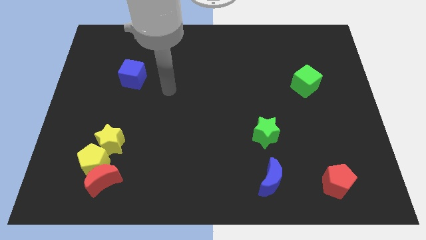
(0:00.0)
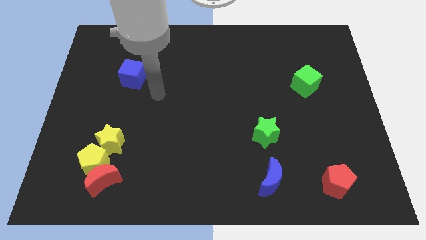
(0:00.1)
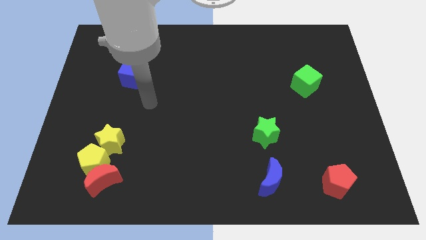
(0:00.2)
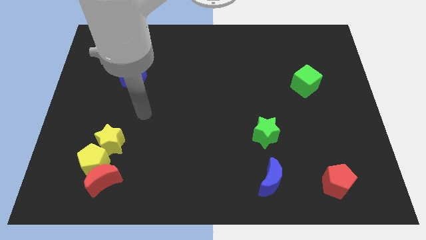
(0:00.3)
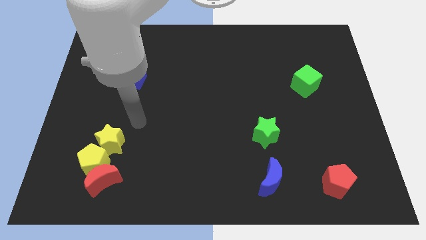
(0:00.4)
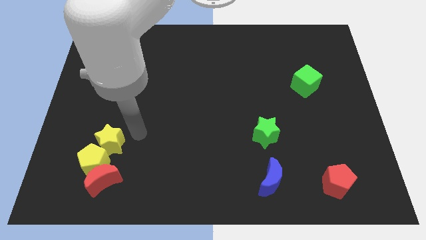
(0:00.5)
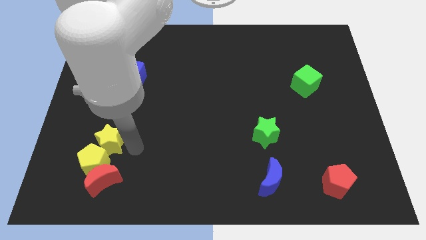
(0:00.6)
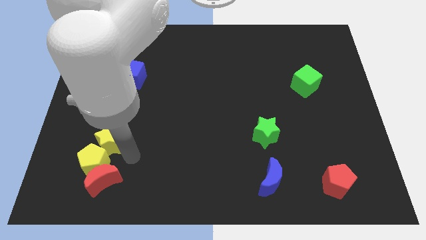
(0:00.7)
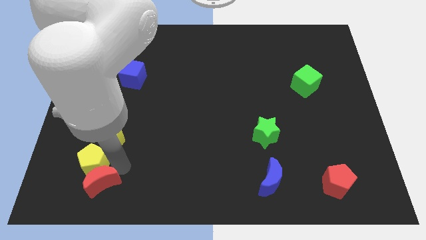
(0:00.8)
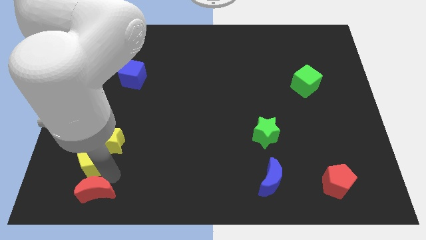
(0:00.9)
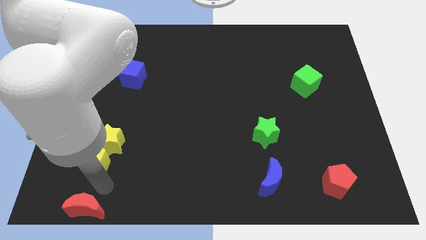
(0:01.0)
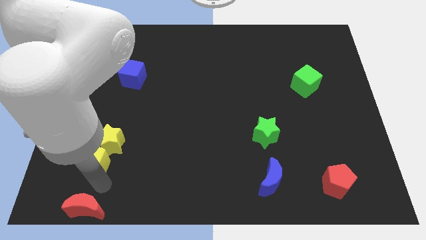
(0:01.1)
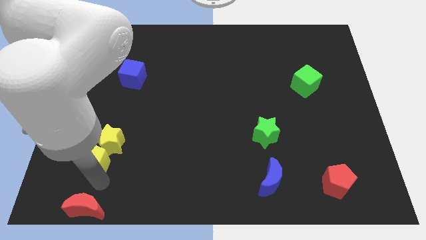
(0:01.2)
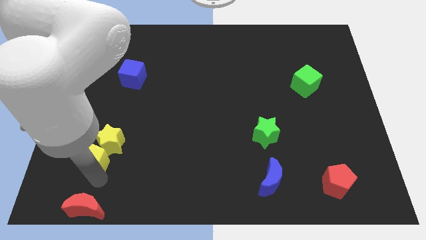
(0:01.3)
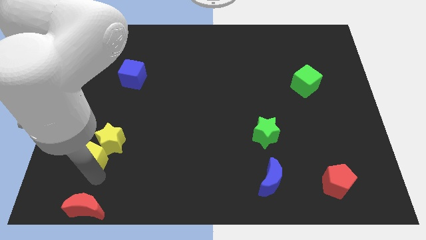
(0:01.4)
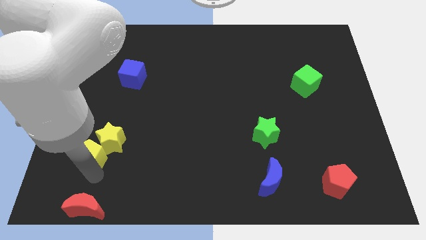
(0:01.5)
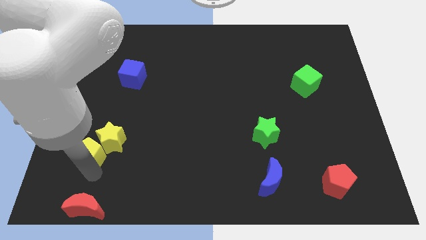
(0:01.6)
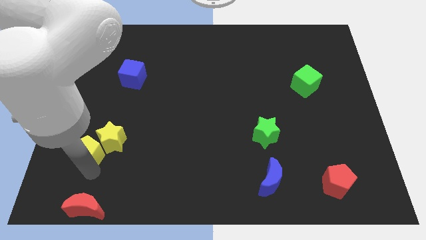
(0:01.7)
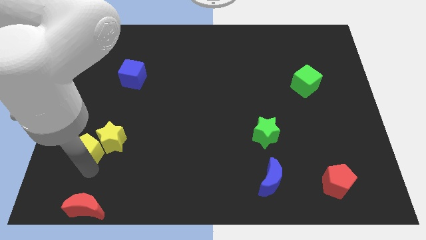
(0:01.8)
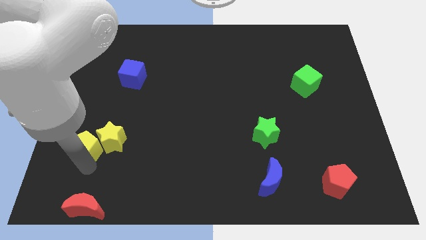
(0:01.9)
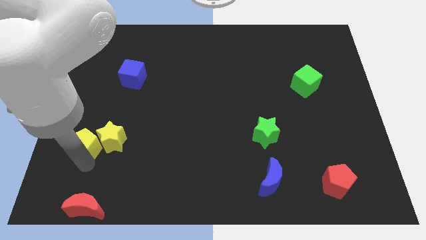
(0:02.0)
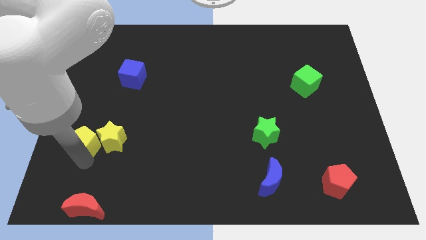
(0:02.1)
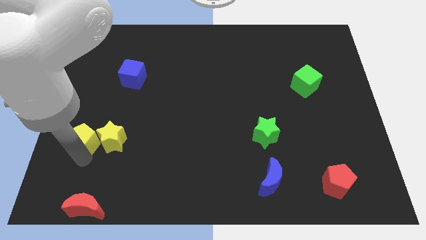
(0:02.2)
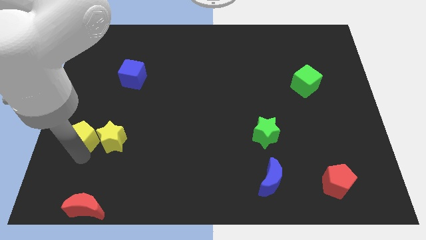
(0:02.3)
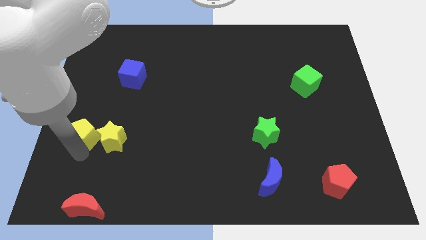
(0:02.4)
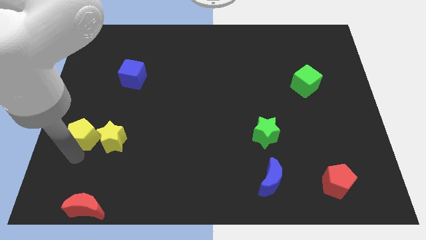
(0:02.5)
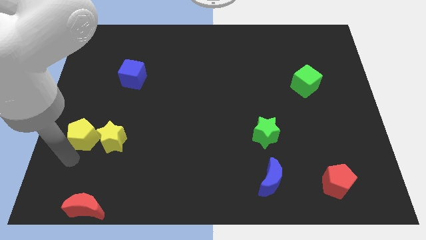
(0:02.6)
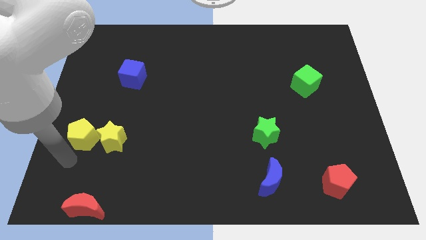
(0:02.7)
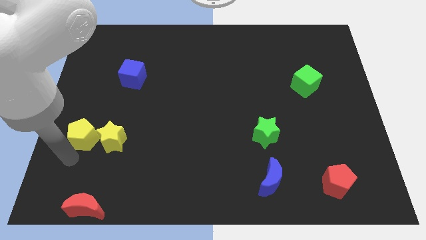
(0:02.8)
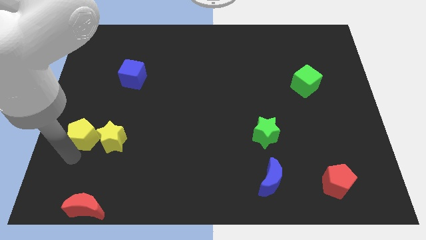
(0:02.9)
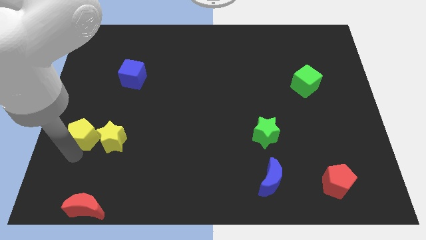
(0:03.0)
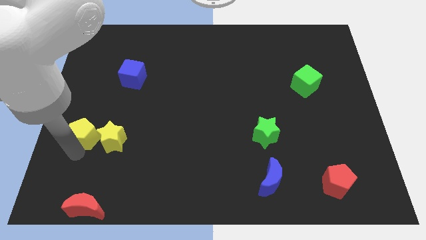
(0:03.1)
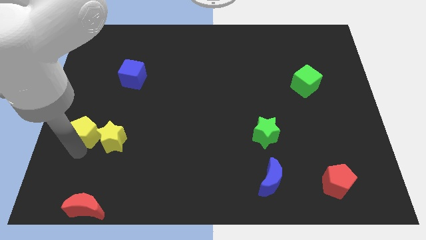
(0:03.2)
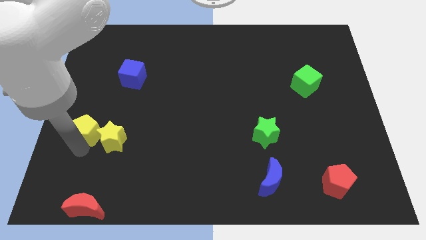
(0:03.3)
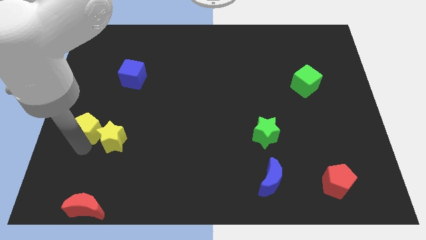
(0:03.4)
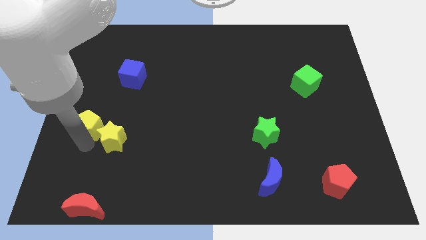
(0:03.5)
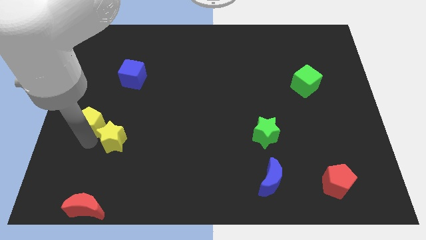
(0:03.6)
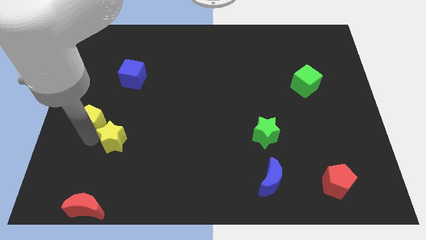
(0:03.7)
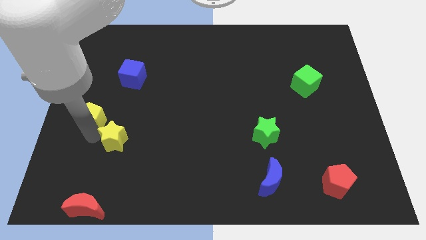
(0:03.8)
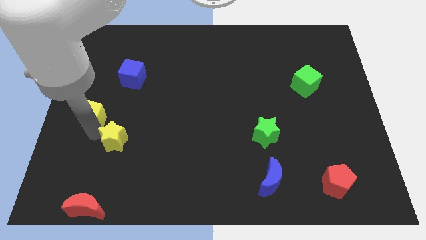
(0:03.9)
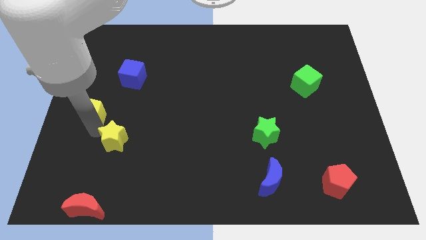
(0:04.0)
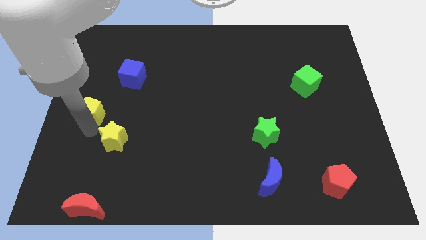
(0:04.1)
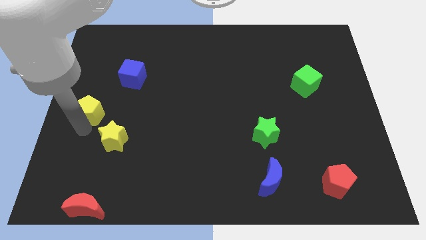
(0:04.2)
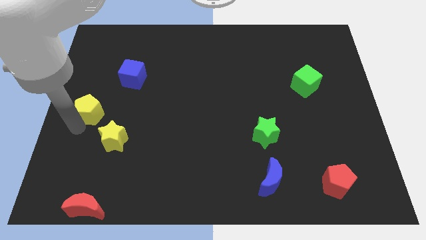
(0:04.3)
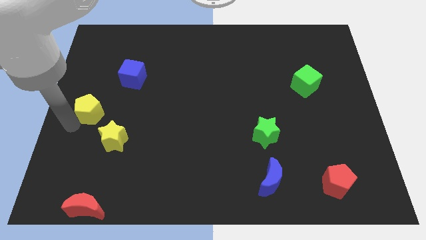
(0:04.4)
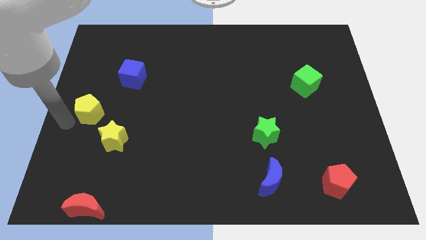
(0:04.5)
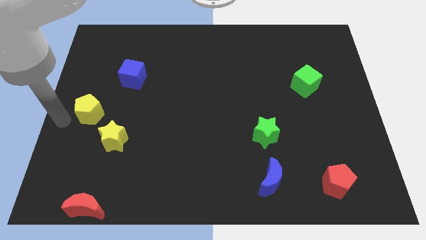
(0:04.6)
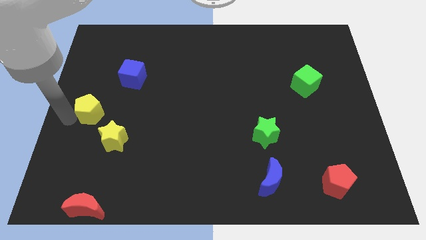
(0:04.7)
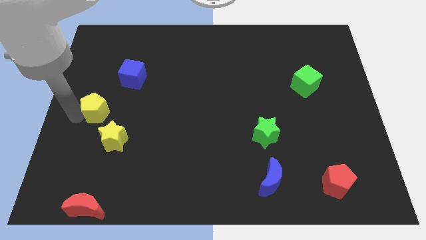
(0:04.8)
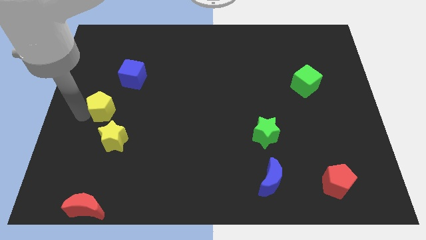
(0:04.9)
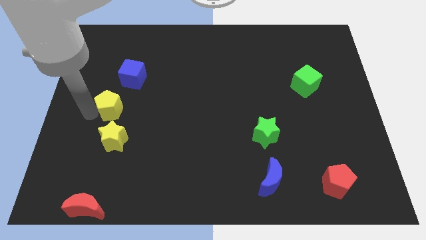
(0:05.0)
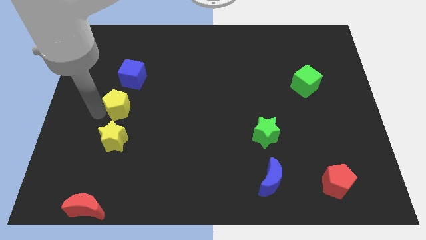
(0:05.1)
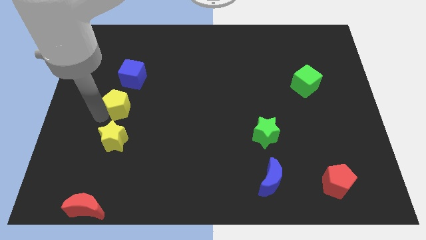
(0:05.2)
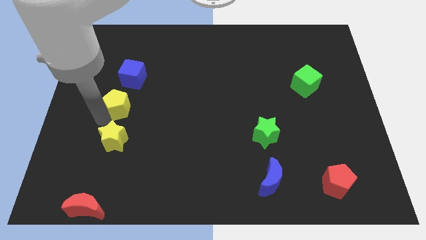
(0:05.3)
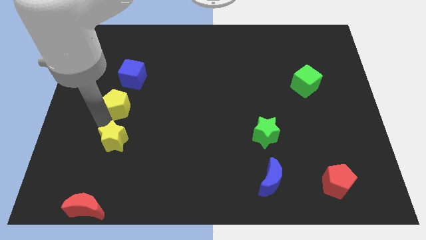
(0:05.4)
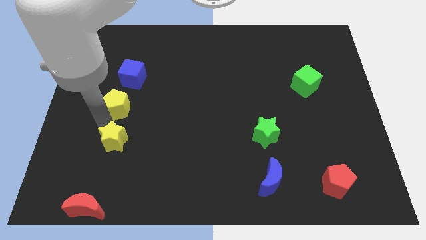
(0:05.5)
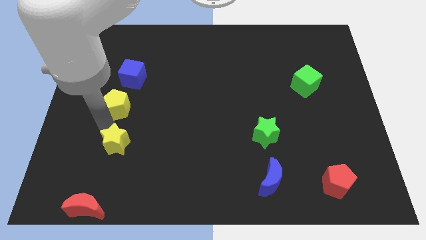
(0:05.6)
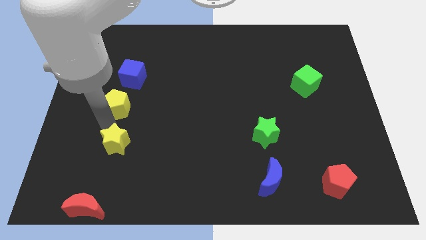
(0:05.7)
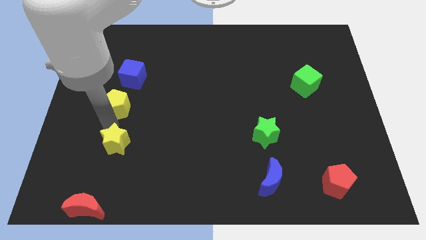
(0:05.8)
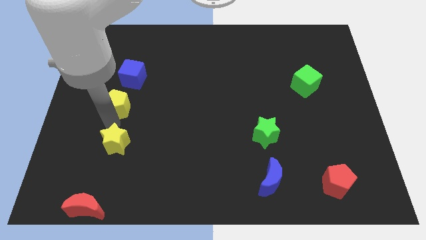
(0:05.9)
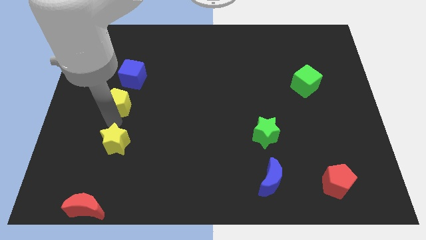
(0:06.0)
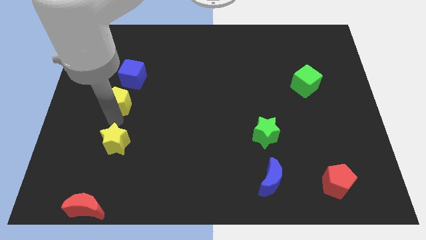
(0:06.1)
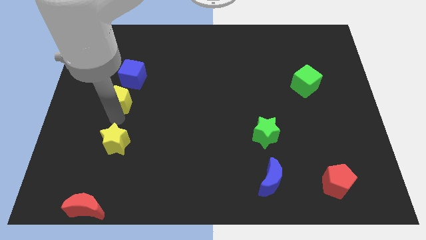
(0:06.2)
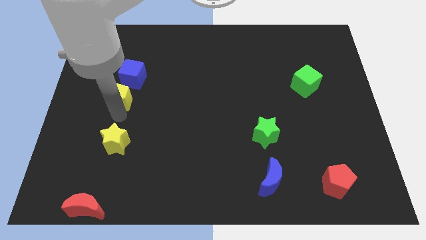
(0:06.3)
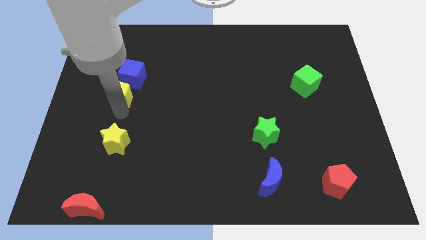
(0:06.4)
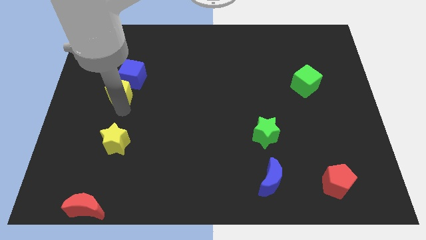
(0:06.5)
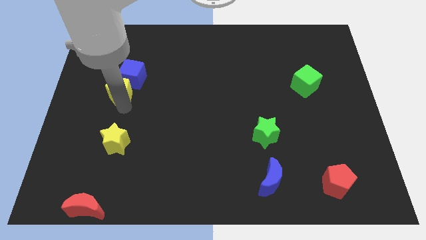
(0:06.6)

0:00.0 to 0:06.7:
slide the yellow pentagon close to the blue cube

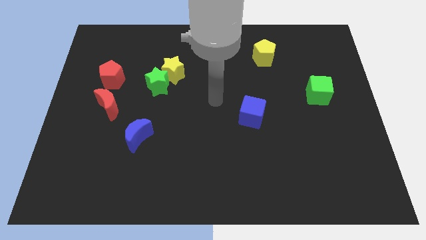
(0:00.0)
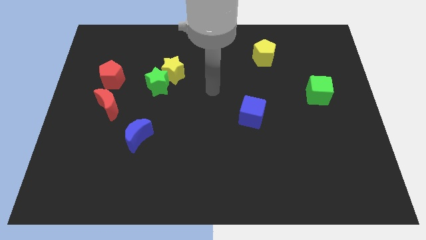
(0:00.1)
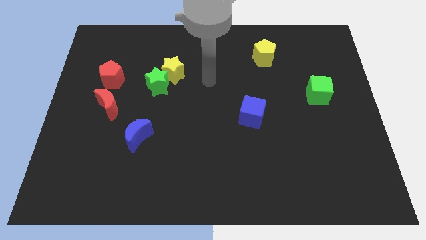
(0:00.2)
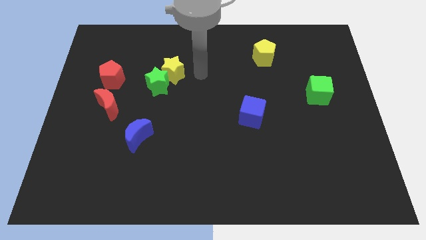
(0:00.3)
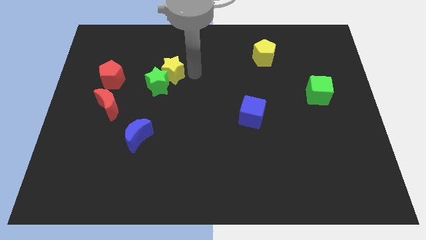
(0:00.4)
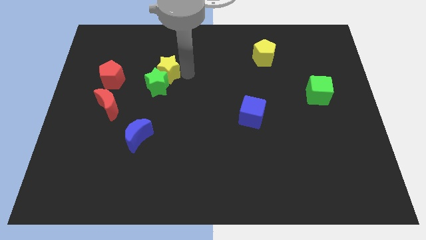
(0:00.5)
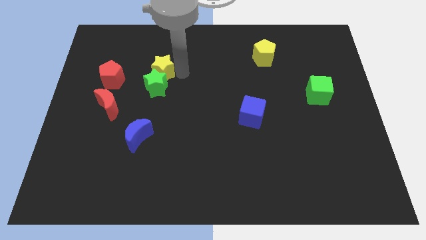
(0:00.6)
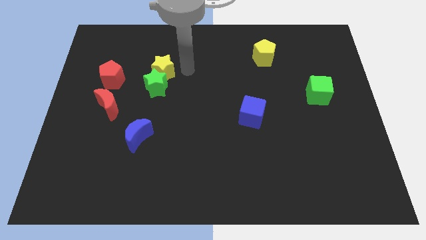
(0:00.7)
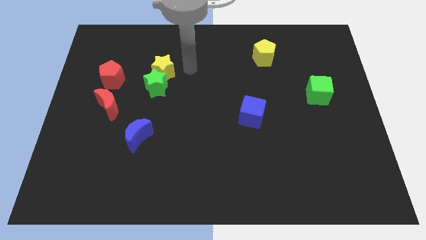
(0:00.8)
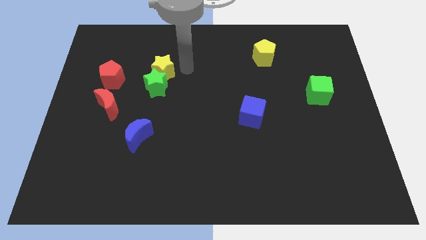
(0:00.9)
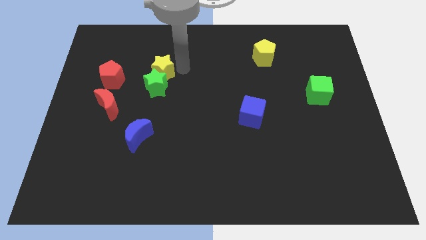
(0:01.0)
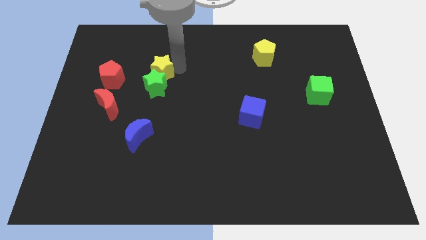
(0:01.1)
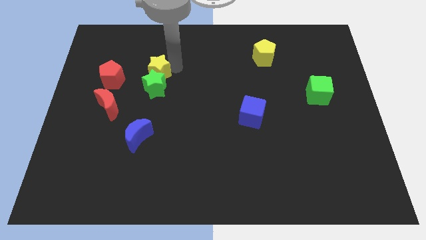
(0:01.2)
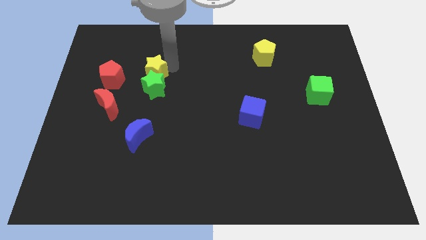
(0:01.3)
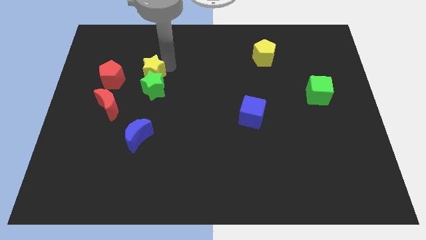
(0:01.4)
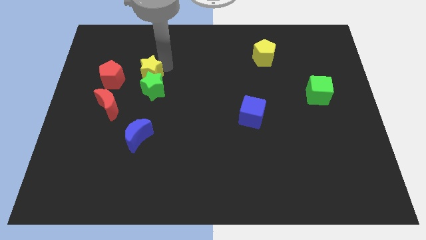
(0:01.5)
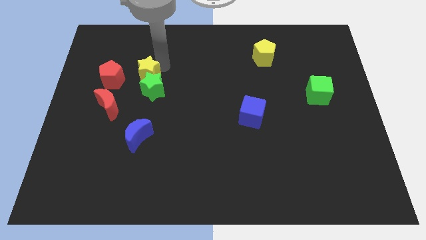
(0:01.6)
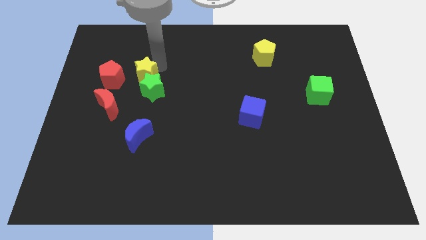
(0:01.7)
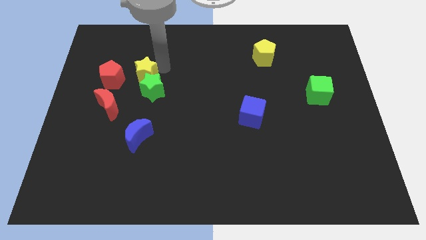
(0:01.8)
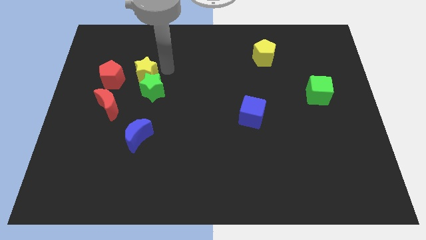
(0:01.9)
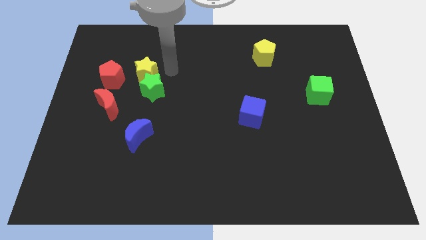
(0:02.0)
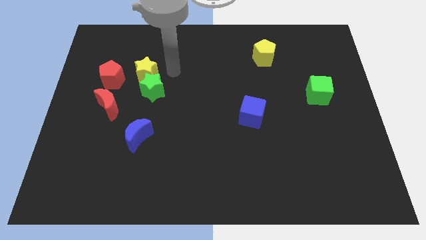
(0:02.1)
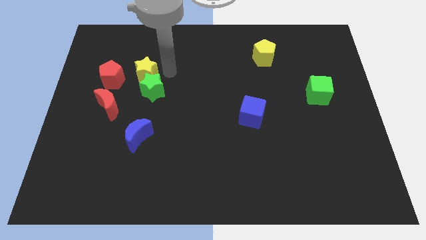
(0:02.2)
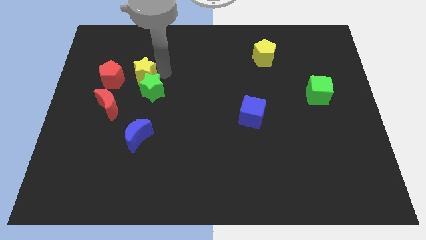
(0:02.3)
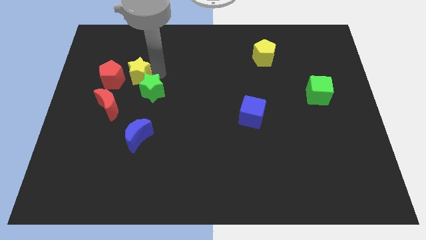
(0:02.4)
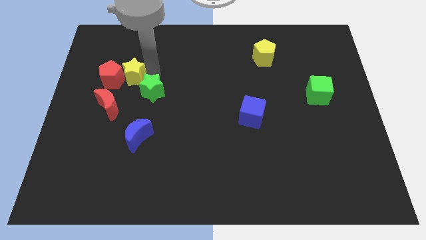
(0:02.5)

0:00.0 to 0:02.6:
push the yellow star towards the red pentagon
